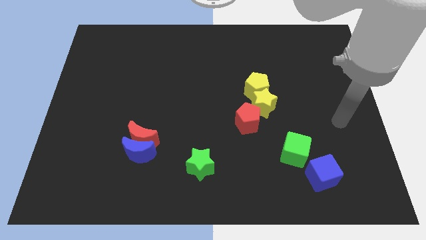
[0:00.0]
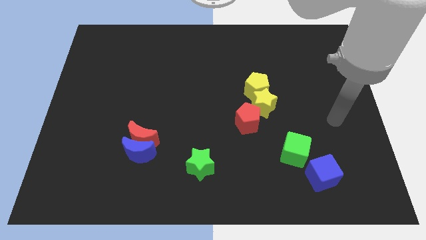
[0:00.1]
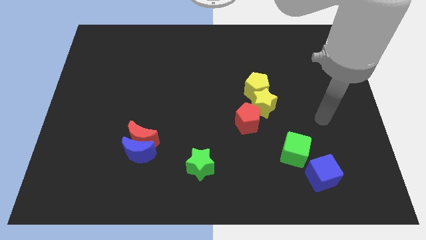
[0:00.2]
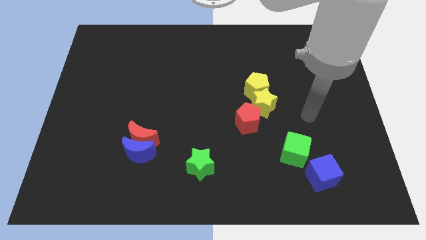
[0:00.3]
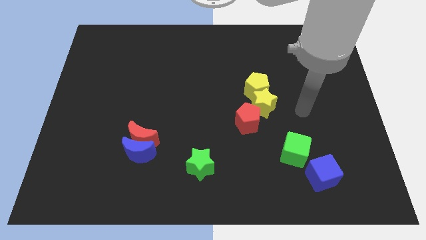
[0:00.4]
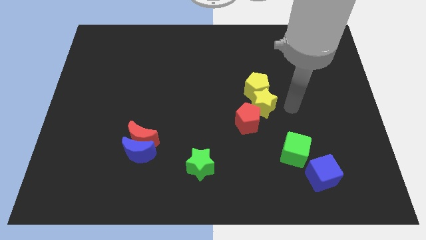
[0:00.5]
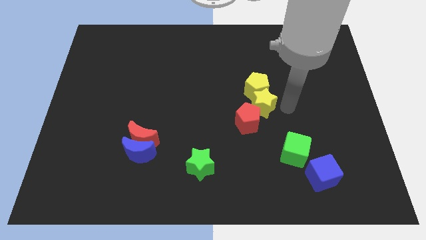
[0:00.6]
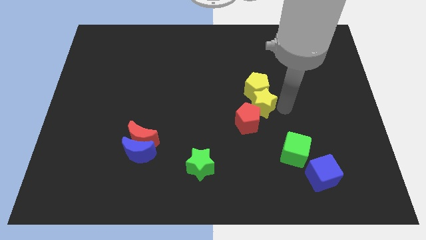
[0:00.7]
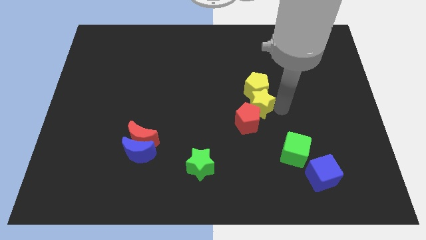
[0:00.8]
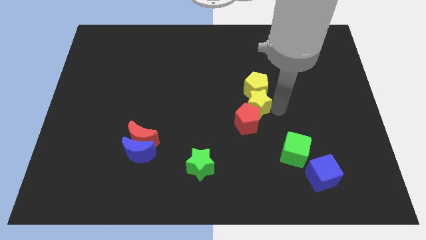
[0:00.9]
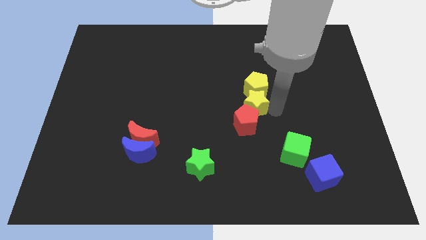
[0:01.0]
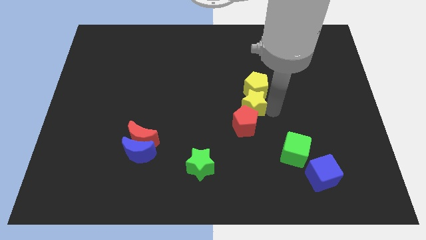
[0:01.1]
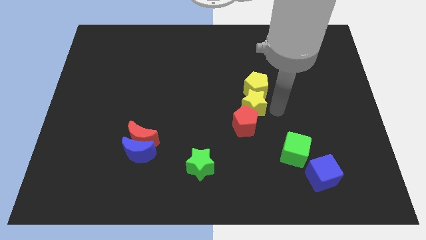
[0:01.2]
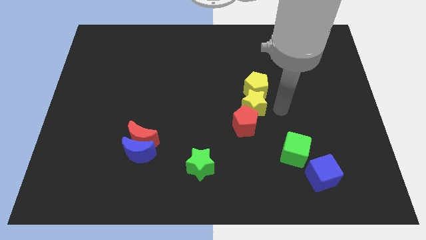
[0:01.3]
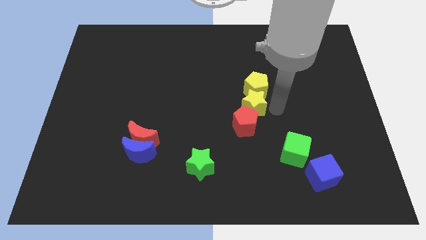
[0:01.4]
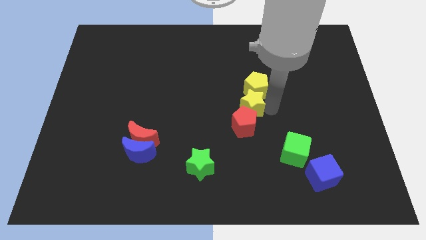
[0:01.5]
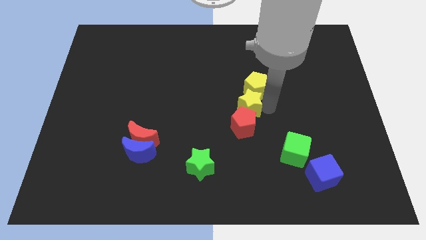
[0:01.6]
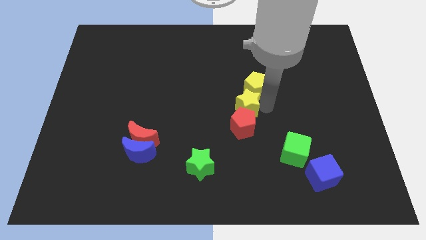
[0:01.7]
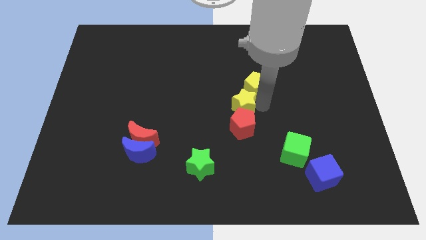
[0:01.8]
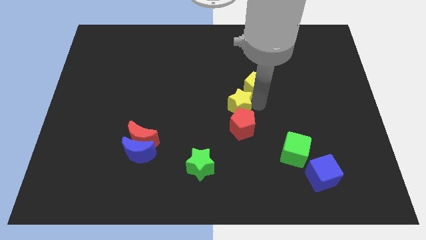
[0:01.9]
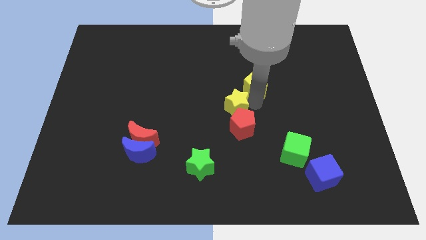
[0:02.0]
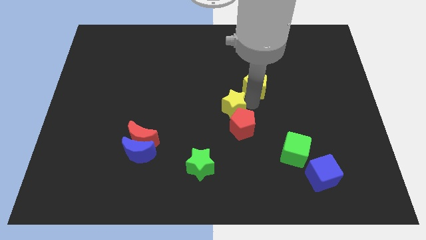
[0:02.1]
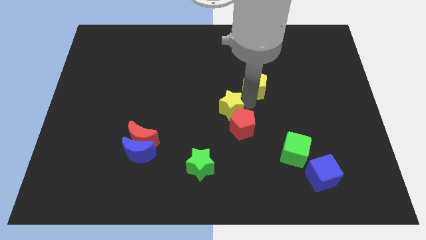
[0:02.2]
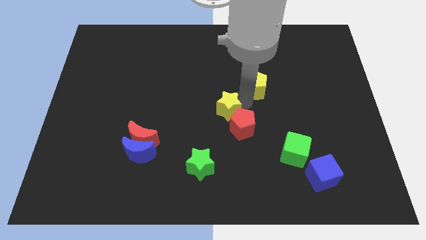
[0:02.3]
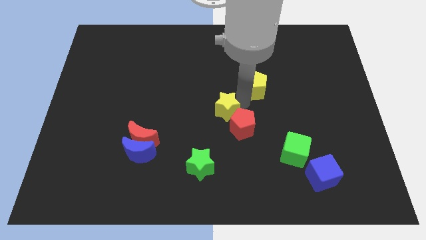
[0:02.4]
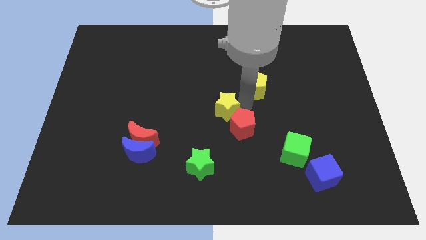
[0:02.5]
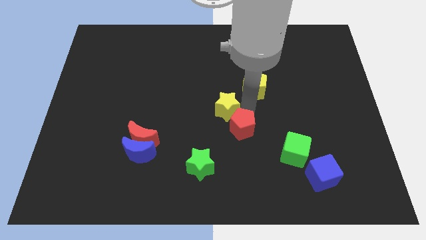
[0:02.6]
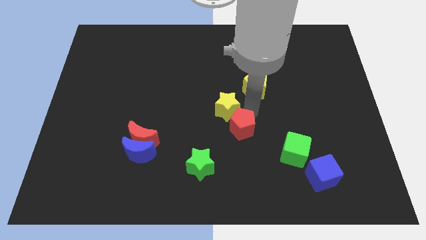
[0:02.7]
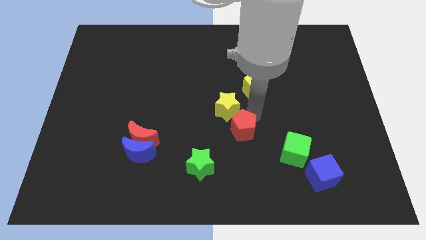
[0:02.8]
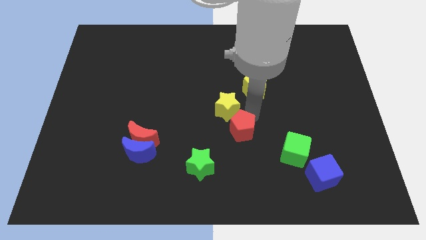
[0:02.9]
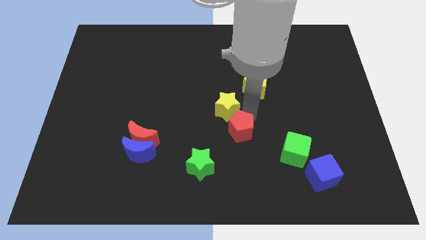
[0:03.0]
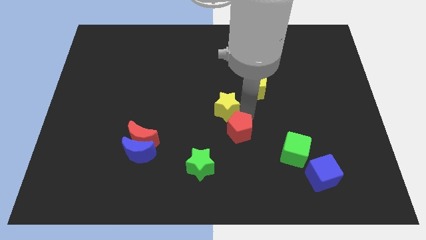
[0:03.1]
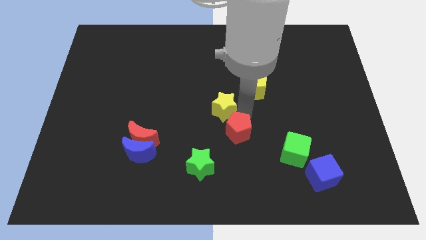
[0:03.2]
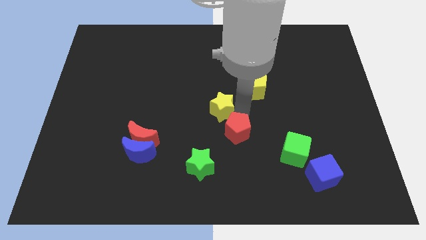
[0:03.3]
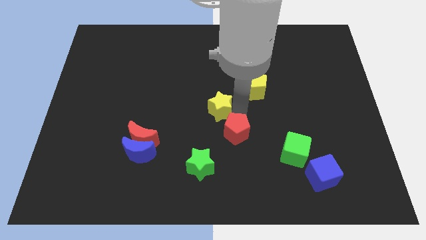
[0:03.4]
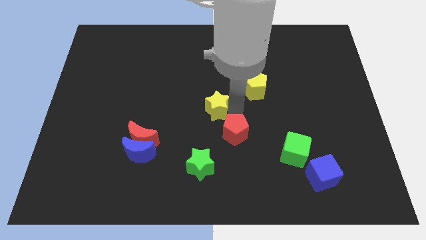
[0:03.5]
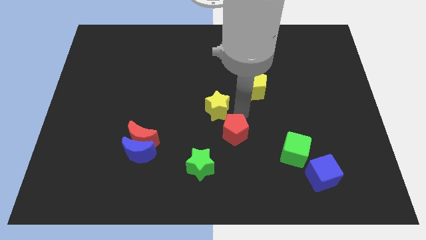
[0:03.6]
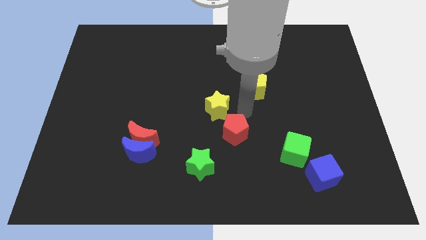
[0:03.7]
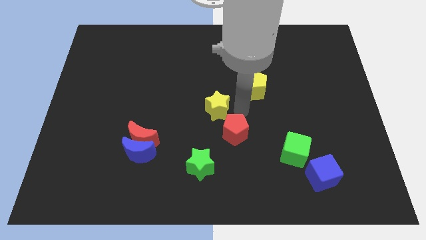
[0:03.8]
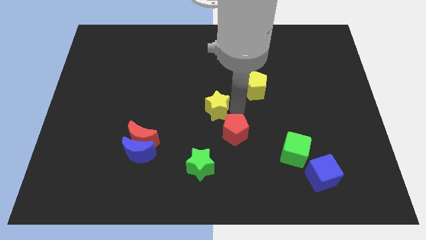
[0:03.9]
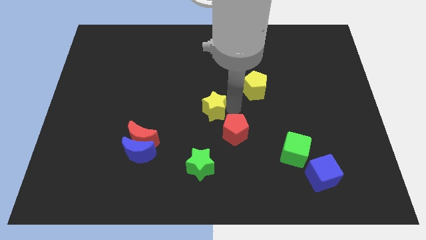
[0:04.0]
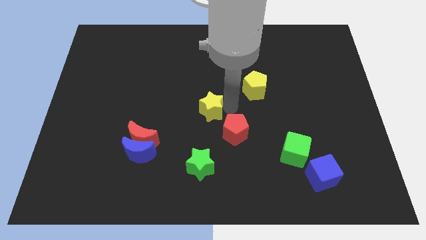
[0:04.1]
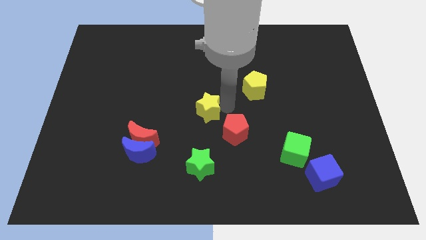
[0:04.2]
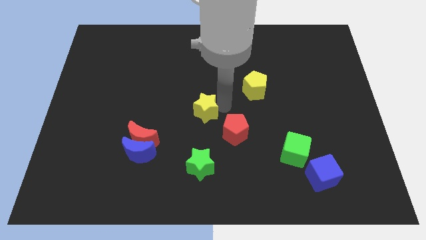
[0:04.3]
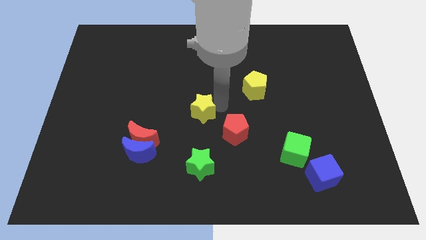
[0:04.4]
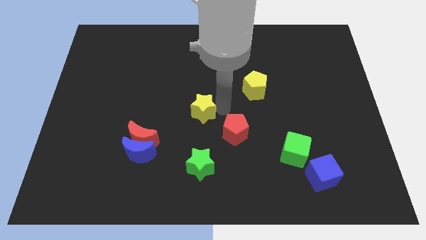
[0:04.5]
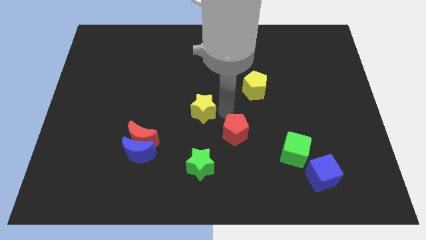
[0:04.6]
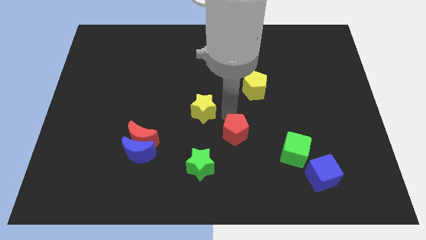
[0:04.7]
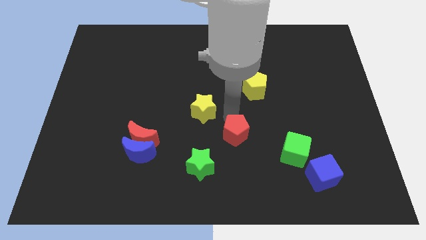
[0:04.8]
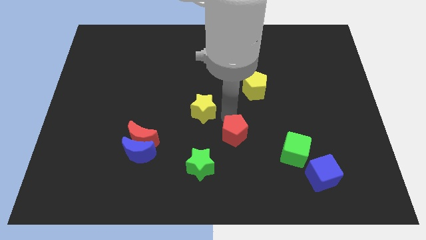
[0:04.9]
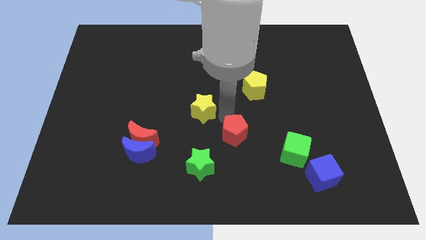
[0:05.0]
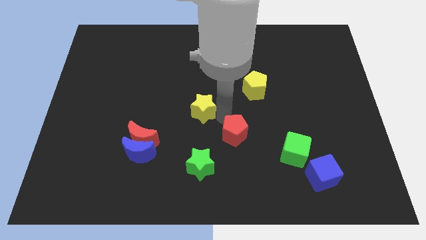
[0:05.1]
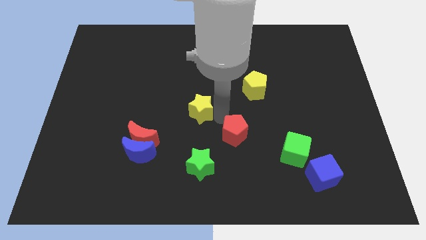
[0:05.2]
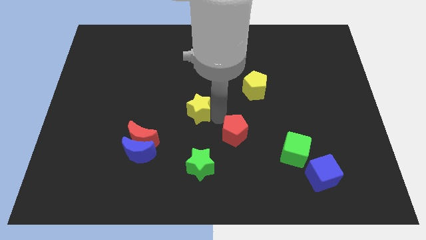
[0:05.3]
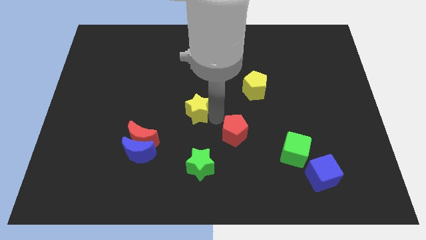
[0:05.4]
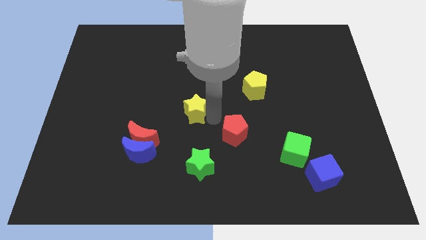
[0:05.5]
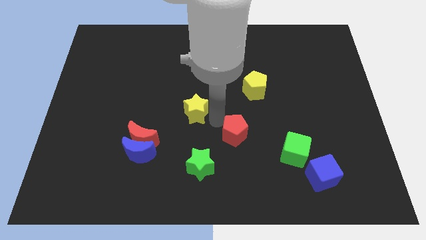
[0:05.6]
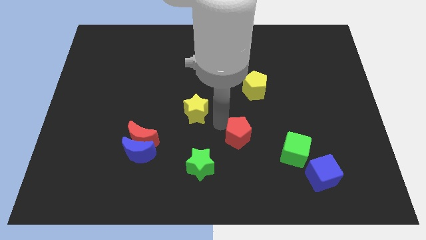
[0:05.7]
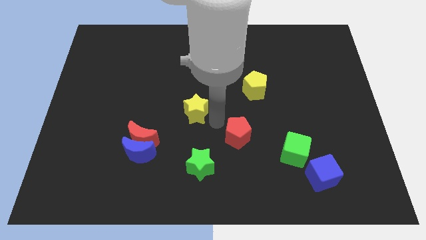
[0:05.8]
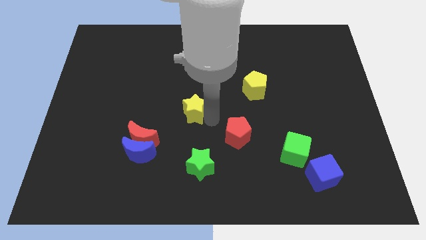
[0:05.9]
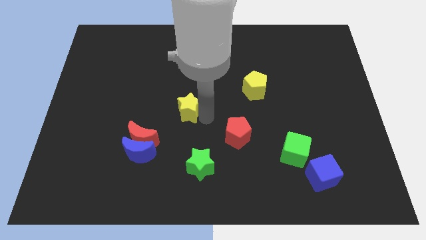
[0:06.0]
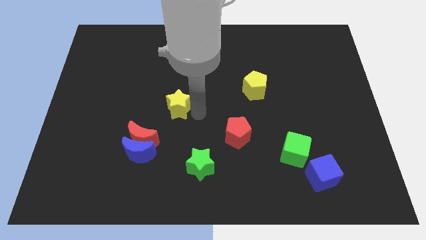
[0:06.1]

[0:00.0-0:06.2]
push the yellow star to the left

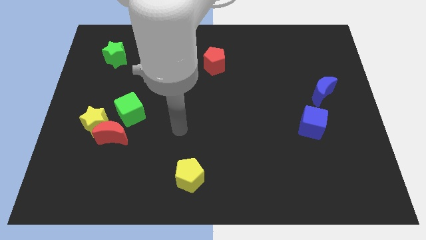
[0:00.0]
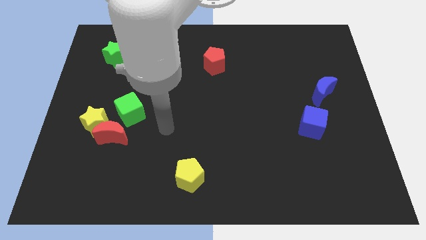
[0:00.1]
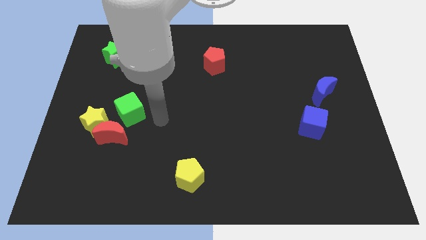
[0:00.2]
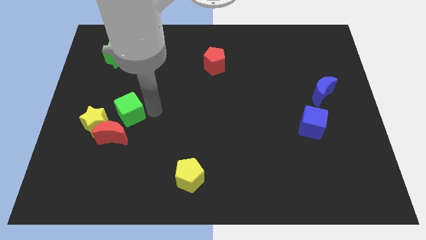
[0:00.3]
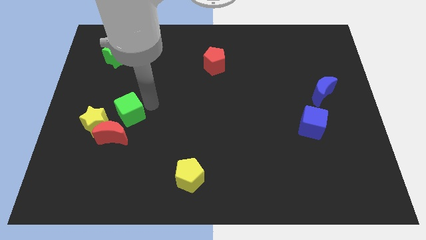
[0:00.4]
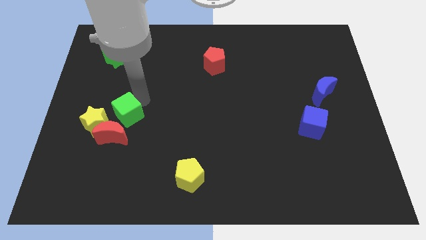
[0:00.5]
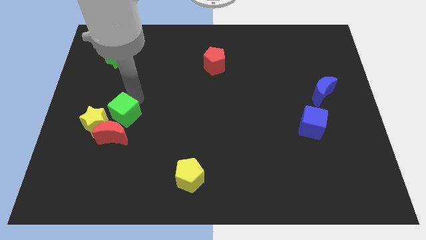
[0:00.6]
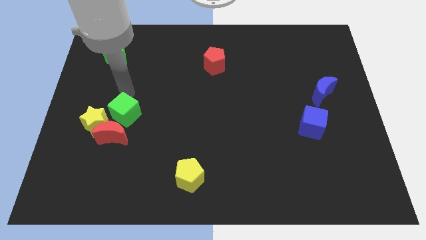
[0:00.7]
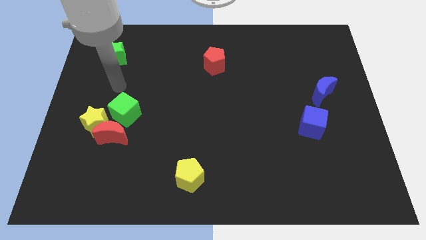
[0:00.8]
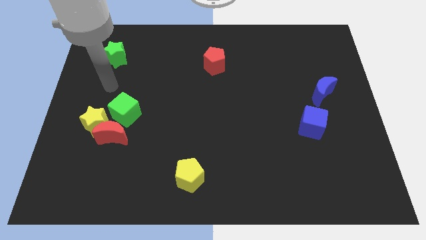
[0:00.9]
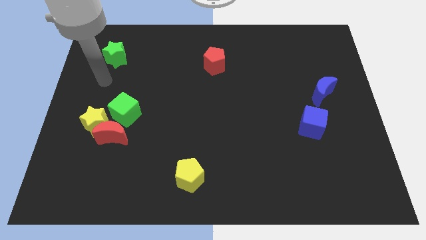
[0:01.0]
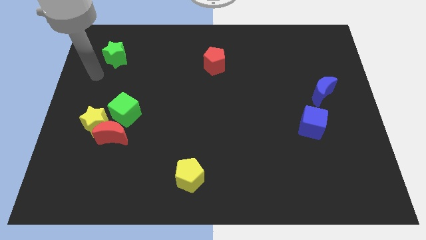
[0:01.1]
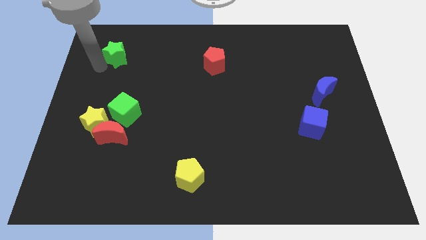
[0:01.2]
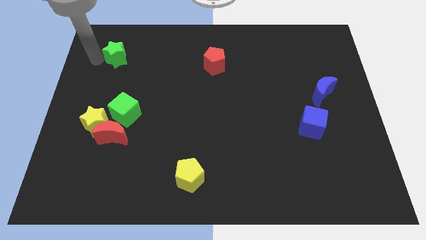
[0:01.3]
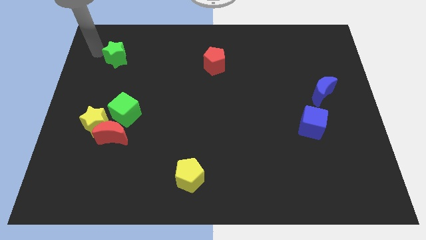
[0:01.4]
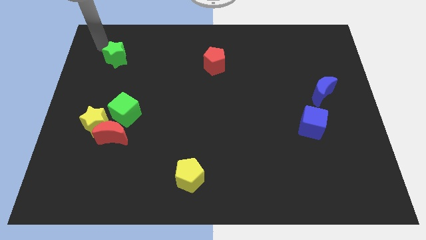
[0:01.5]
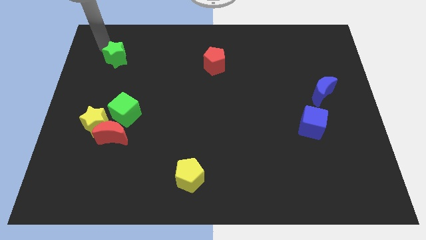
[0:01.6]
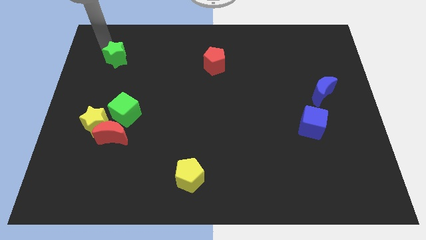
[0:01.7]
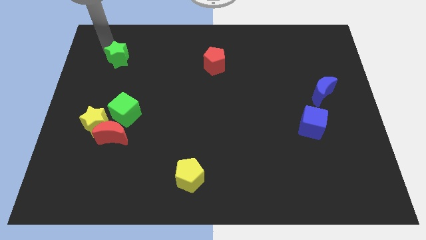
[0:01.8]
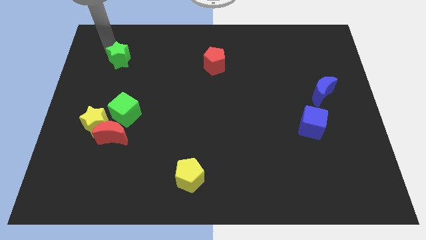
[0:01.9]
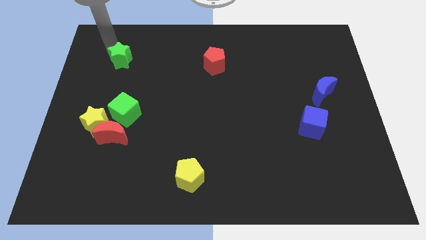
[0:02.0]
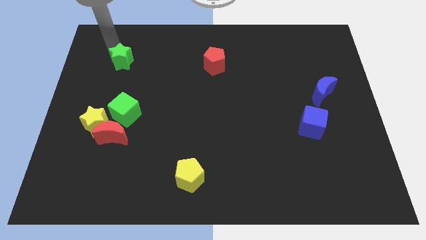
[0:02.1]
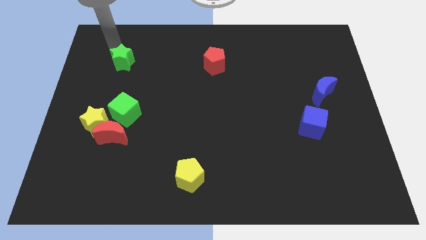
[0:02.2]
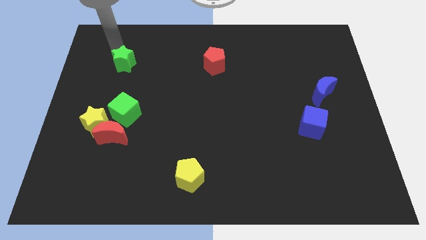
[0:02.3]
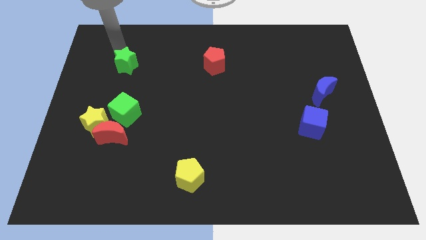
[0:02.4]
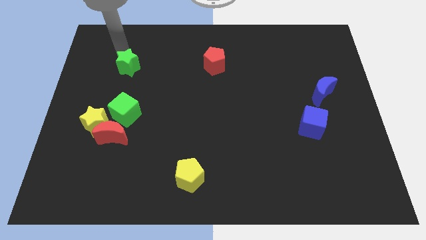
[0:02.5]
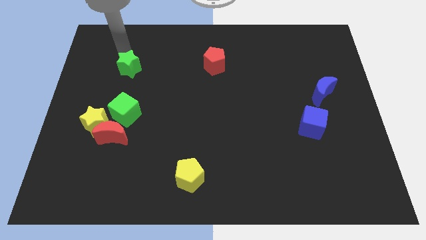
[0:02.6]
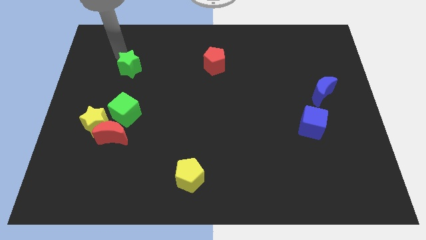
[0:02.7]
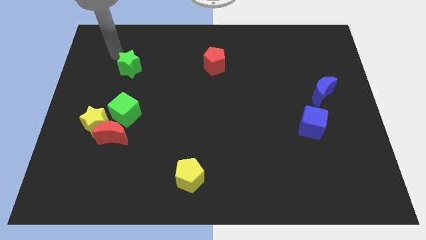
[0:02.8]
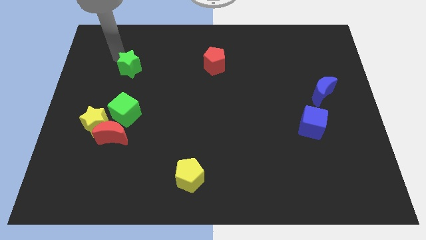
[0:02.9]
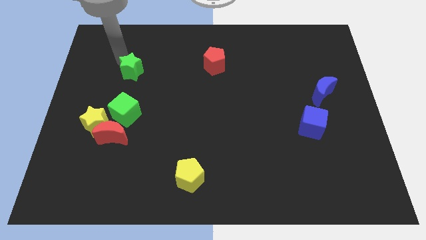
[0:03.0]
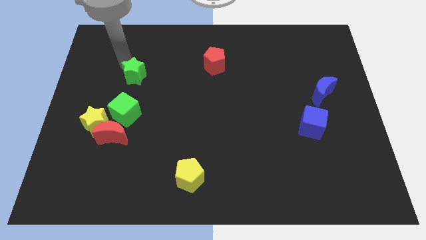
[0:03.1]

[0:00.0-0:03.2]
move the green star down and right a little bit
